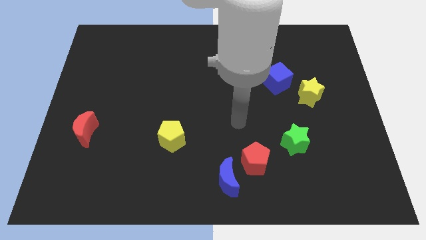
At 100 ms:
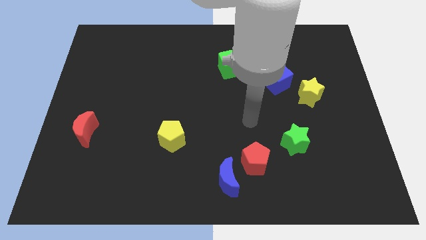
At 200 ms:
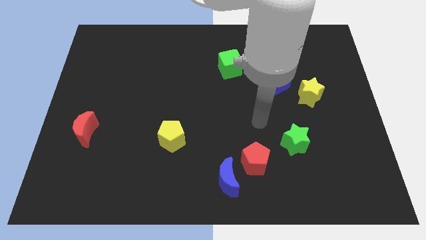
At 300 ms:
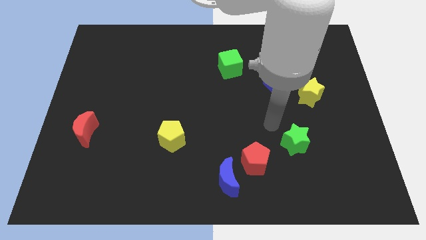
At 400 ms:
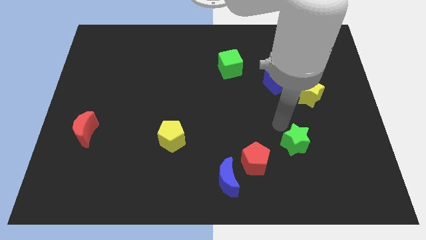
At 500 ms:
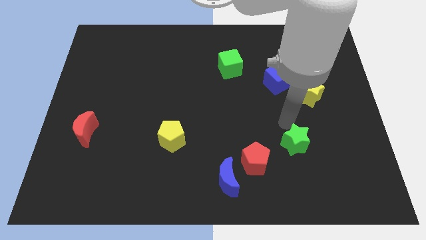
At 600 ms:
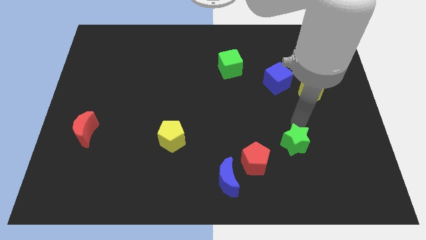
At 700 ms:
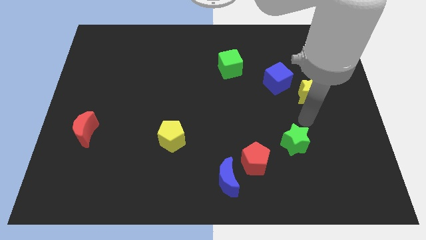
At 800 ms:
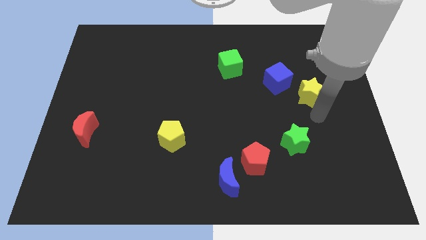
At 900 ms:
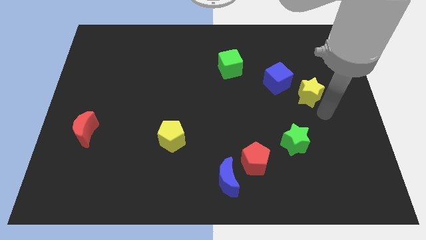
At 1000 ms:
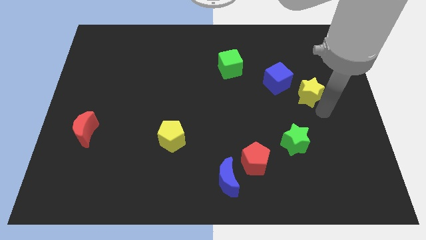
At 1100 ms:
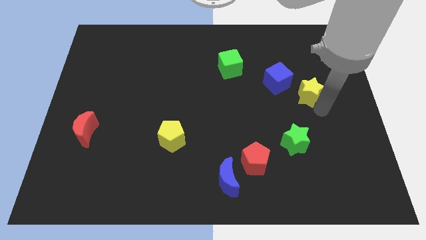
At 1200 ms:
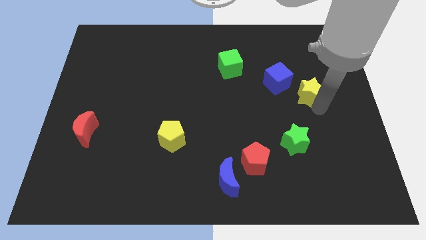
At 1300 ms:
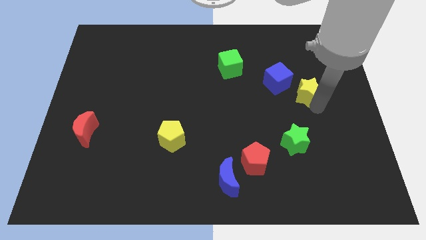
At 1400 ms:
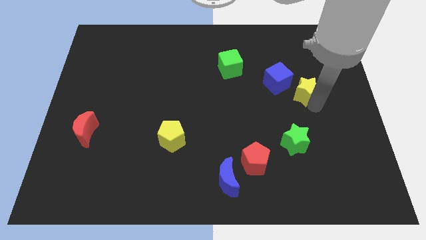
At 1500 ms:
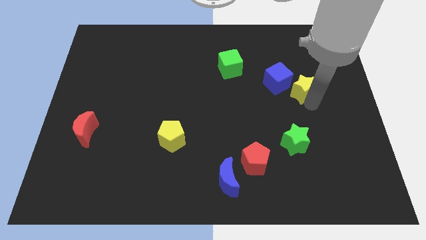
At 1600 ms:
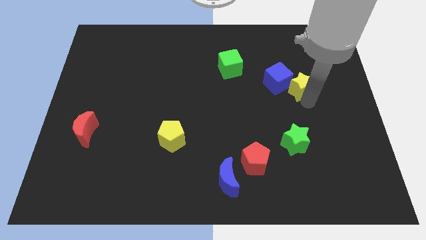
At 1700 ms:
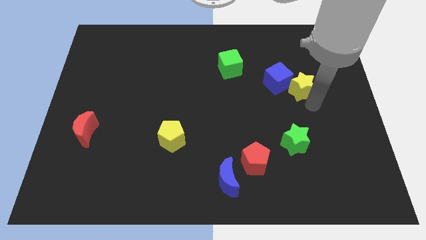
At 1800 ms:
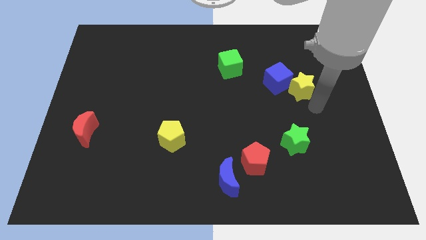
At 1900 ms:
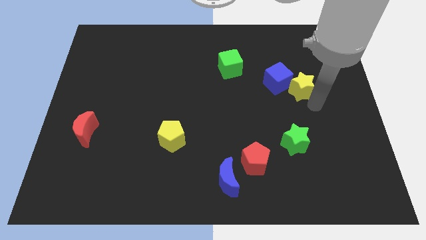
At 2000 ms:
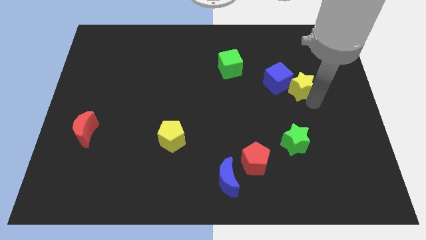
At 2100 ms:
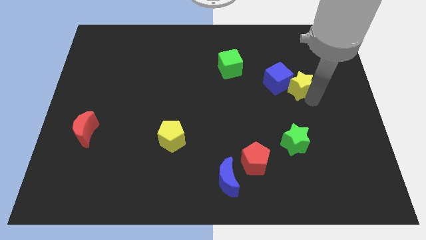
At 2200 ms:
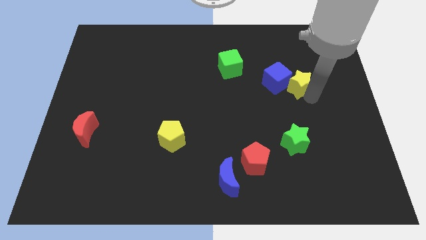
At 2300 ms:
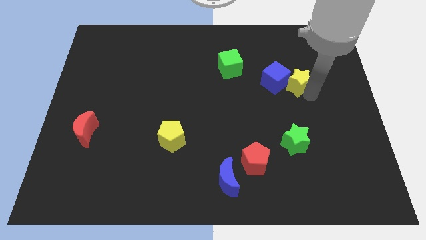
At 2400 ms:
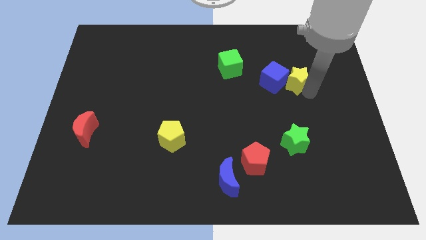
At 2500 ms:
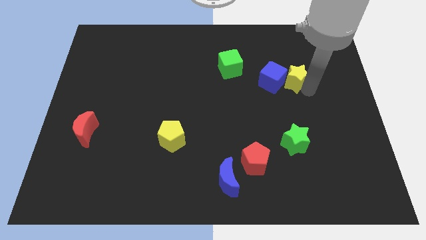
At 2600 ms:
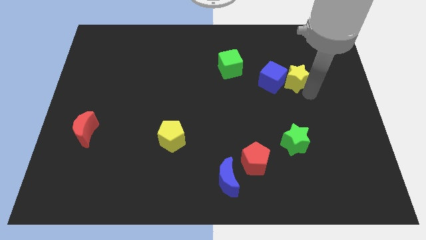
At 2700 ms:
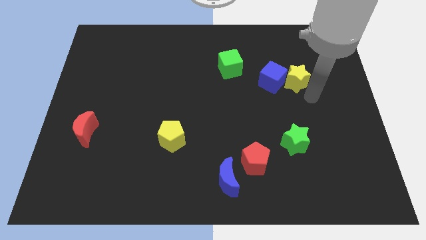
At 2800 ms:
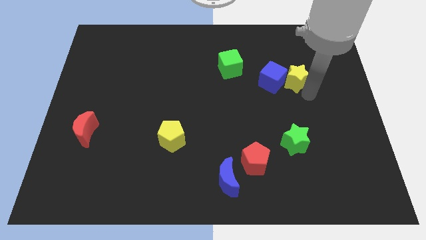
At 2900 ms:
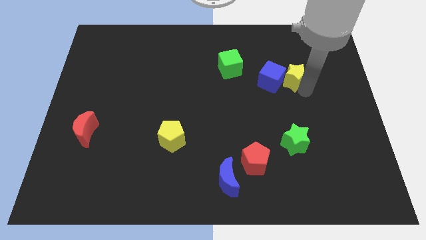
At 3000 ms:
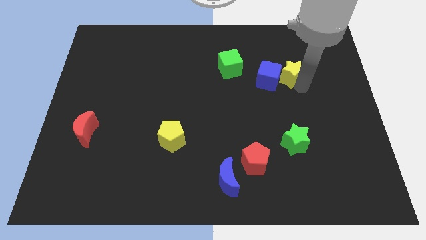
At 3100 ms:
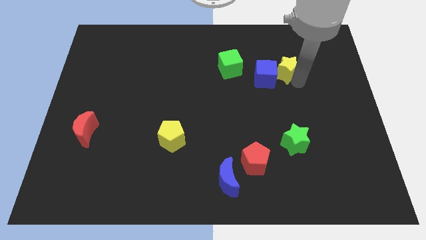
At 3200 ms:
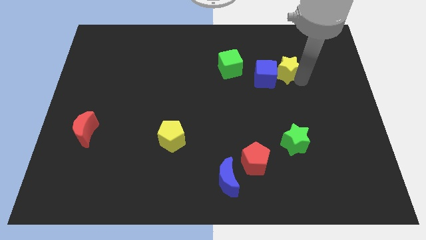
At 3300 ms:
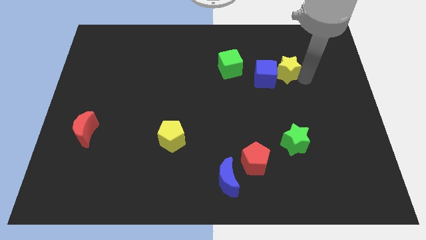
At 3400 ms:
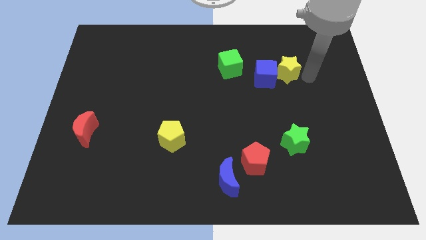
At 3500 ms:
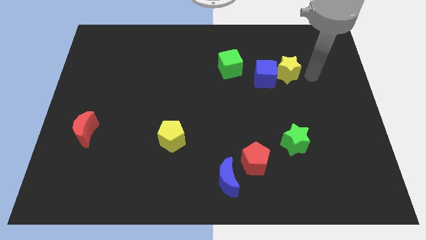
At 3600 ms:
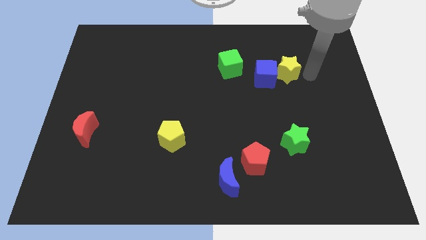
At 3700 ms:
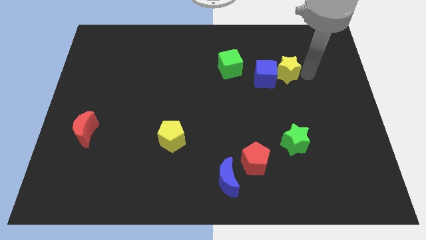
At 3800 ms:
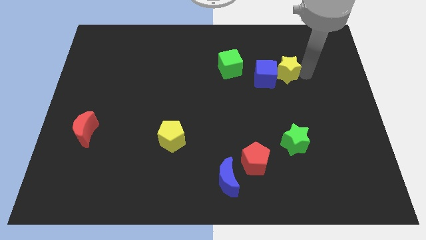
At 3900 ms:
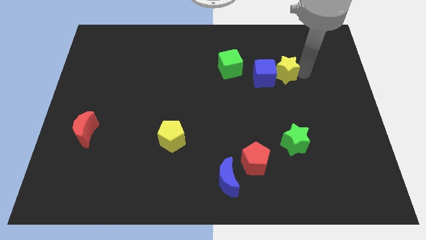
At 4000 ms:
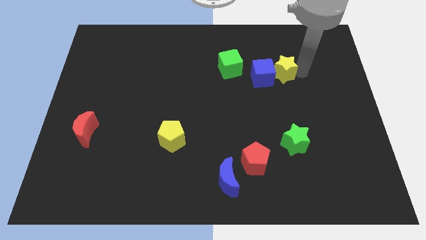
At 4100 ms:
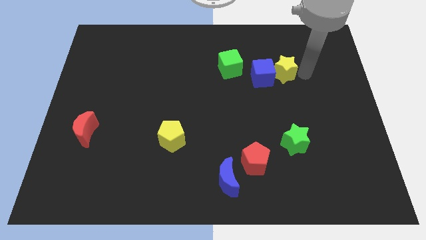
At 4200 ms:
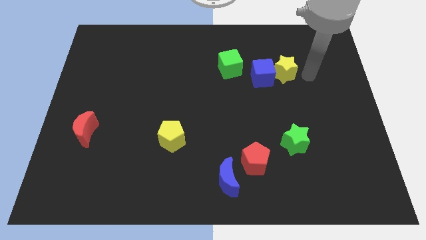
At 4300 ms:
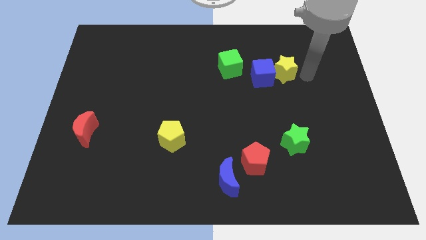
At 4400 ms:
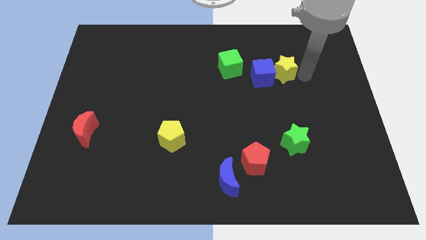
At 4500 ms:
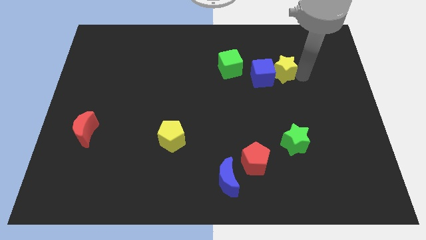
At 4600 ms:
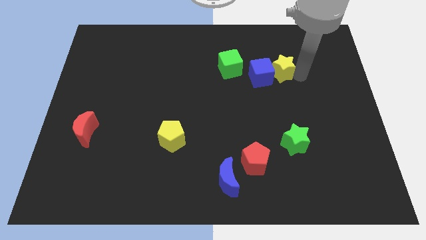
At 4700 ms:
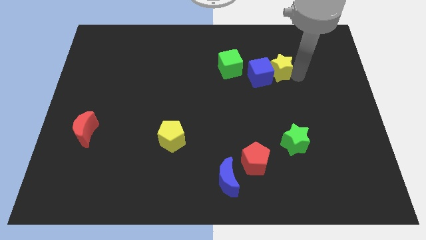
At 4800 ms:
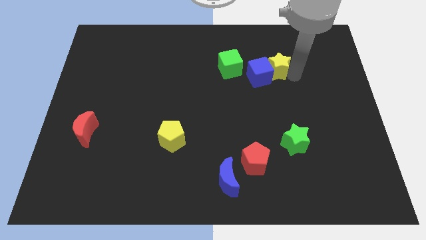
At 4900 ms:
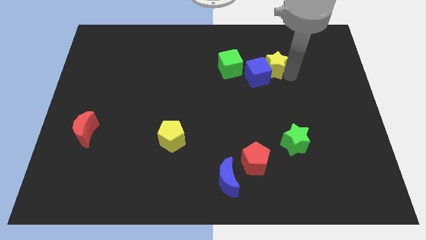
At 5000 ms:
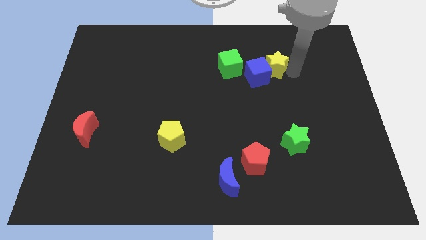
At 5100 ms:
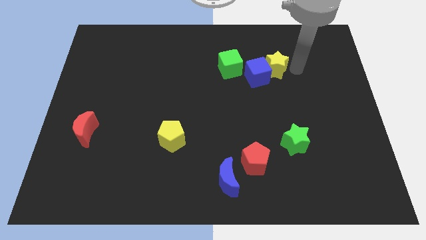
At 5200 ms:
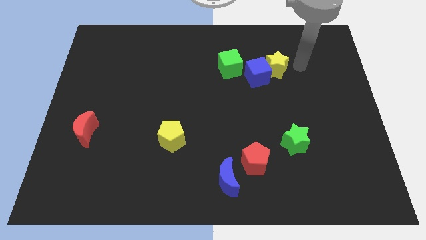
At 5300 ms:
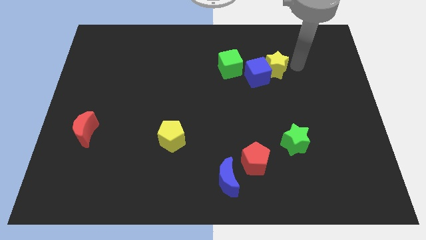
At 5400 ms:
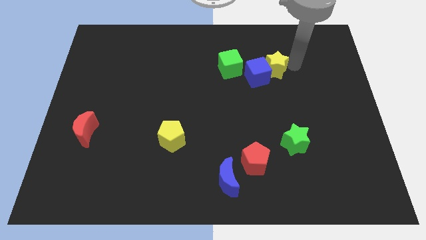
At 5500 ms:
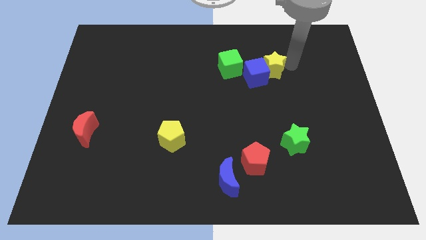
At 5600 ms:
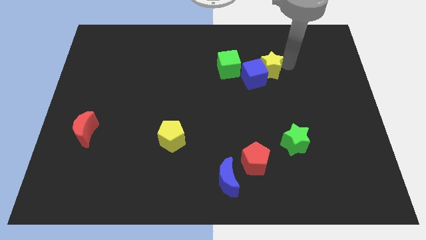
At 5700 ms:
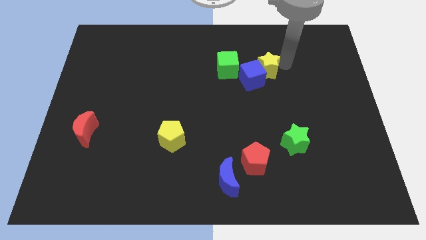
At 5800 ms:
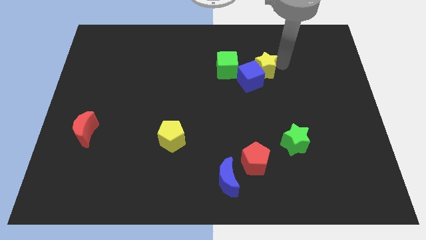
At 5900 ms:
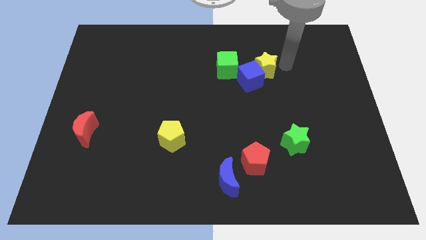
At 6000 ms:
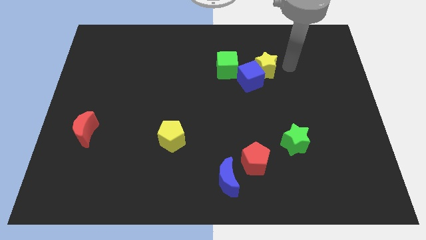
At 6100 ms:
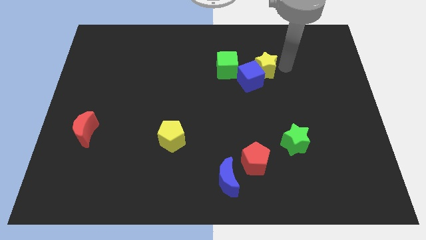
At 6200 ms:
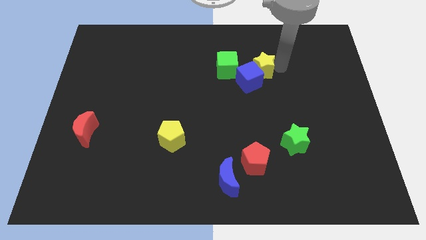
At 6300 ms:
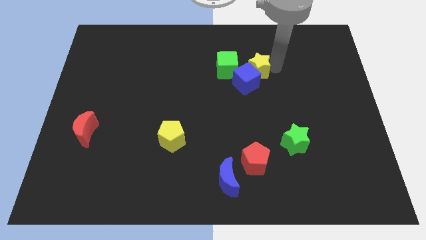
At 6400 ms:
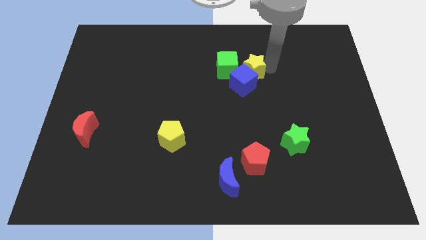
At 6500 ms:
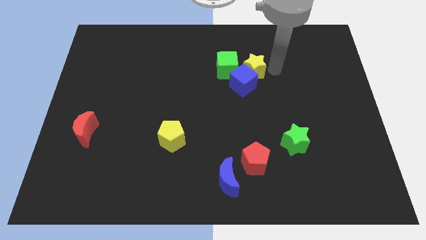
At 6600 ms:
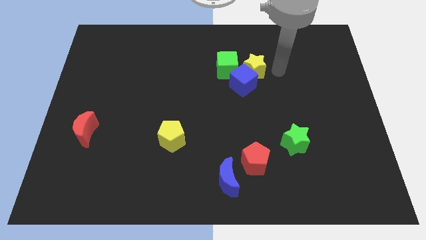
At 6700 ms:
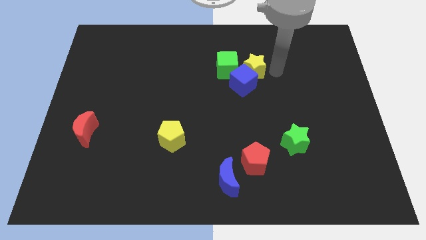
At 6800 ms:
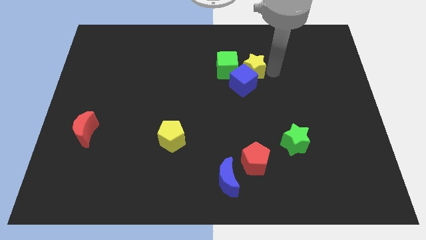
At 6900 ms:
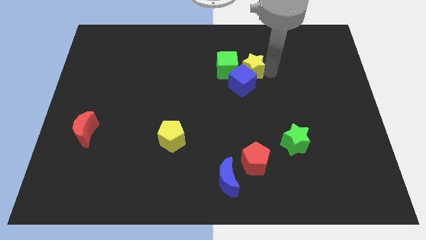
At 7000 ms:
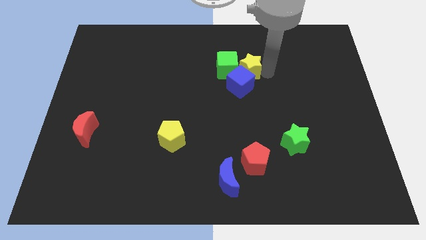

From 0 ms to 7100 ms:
move the yellow star towards the green cube
